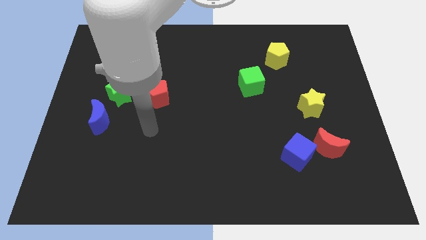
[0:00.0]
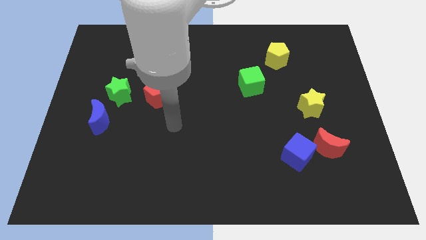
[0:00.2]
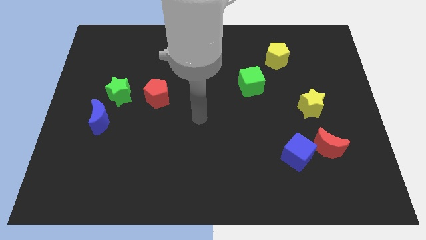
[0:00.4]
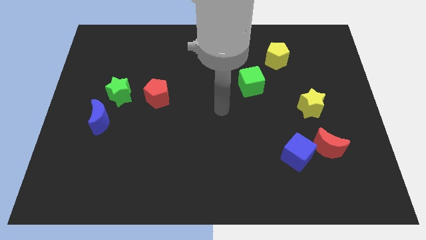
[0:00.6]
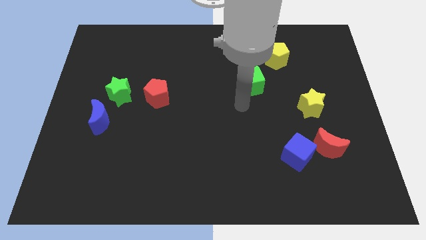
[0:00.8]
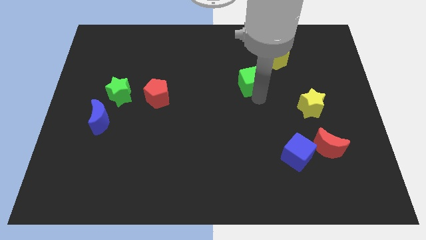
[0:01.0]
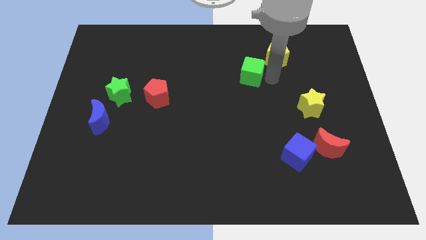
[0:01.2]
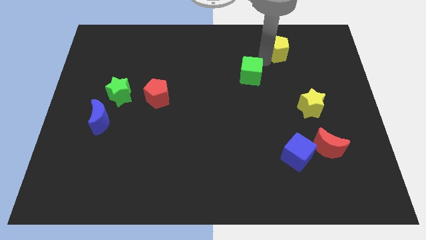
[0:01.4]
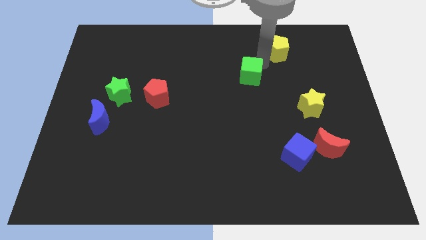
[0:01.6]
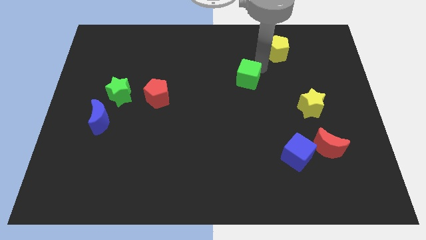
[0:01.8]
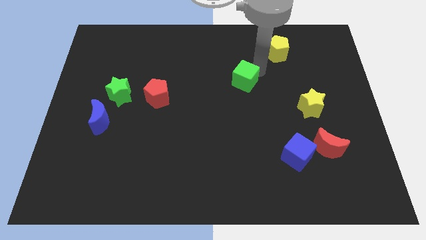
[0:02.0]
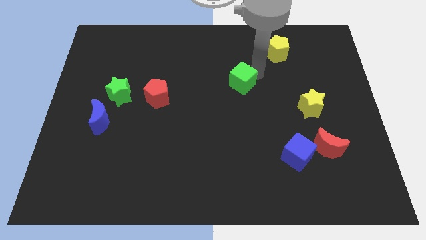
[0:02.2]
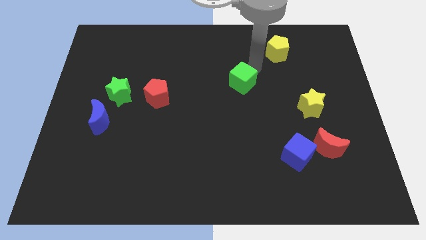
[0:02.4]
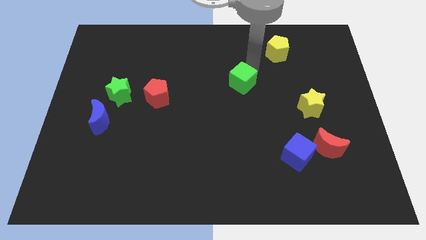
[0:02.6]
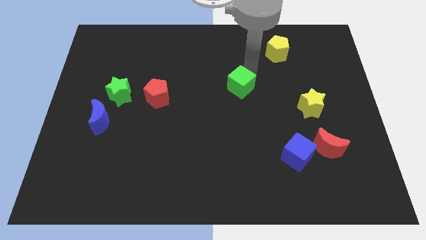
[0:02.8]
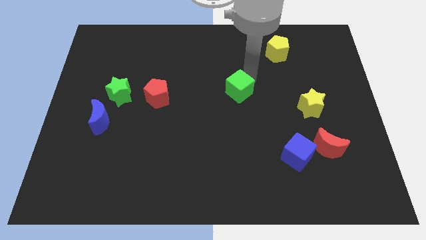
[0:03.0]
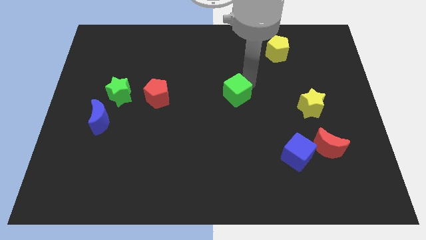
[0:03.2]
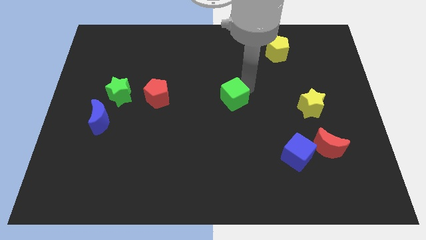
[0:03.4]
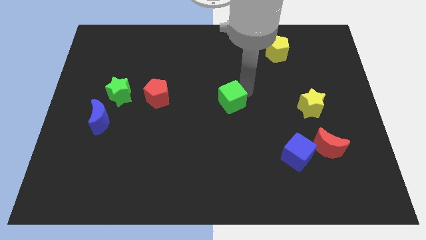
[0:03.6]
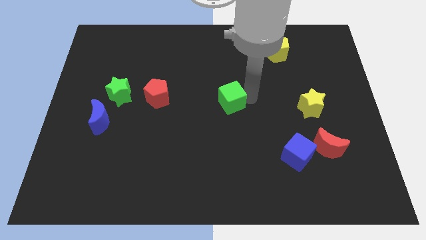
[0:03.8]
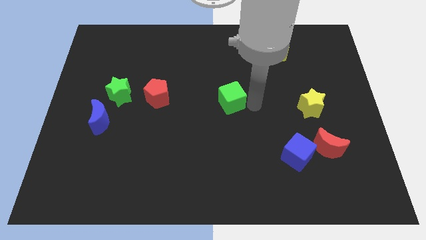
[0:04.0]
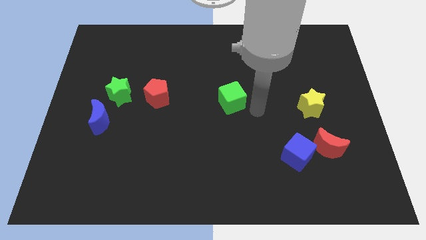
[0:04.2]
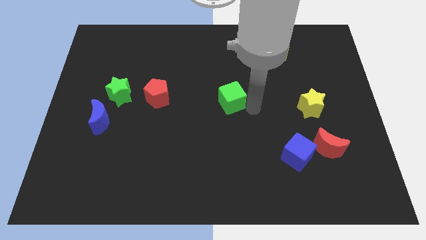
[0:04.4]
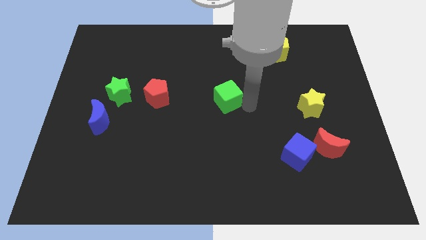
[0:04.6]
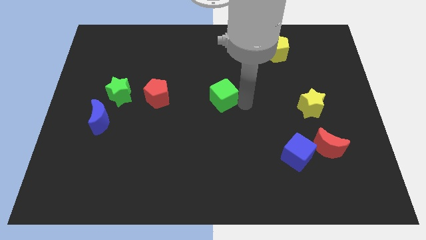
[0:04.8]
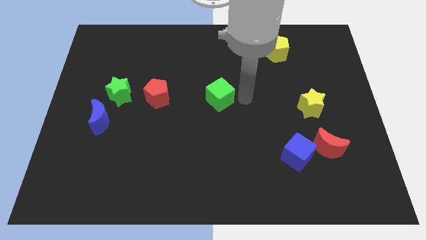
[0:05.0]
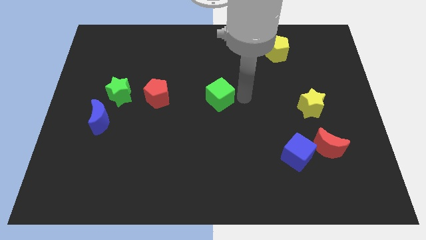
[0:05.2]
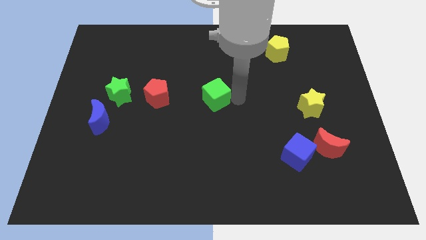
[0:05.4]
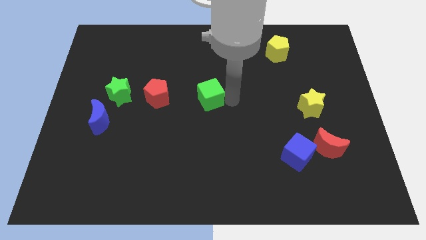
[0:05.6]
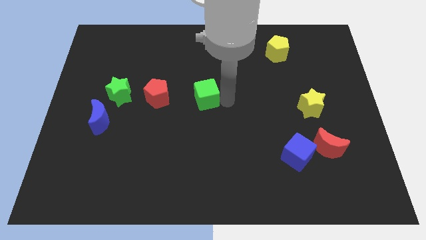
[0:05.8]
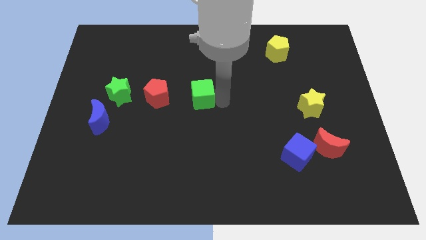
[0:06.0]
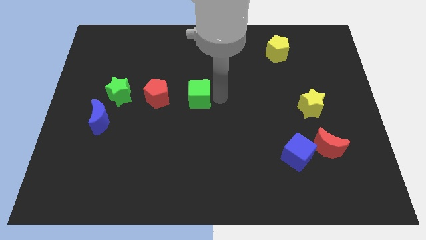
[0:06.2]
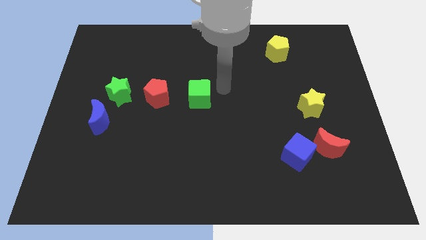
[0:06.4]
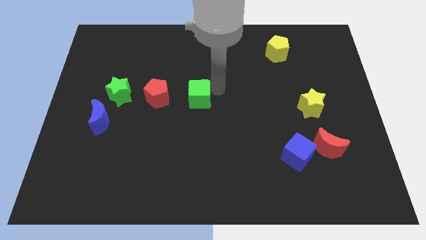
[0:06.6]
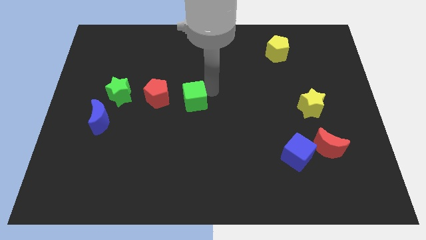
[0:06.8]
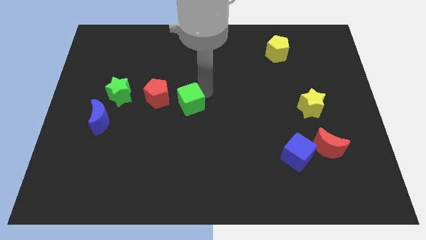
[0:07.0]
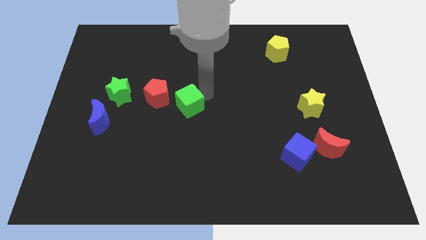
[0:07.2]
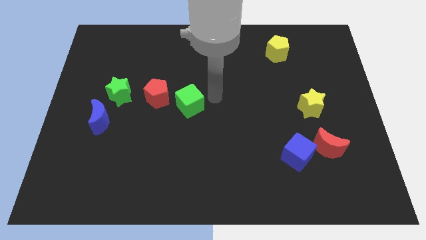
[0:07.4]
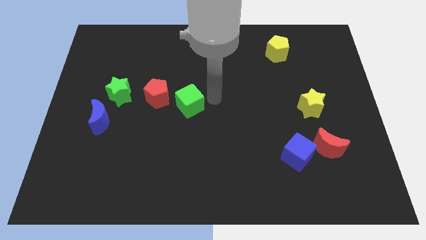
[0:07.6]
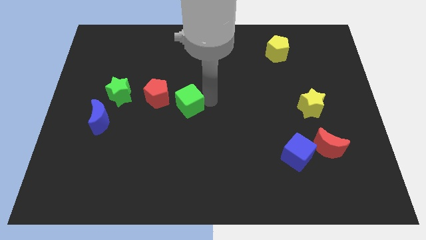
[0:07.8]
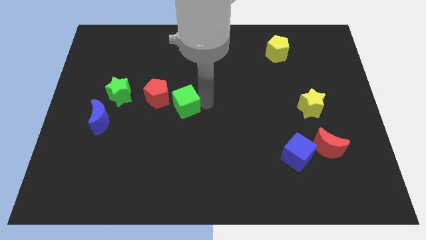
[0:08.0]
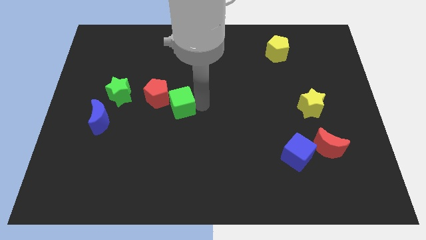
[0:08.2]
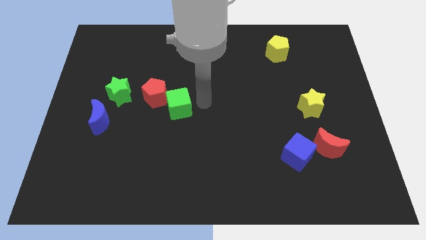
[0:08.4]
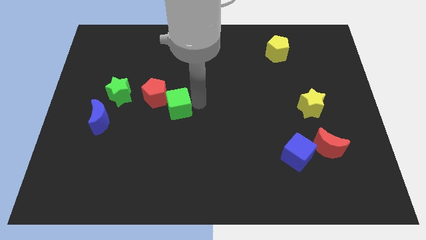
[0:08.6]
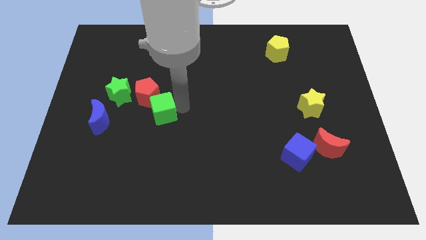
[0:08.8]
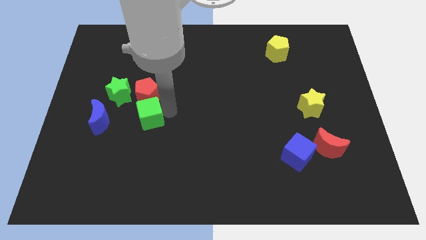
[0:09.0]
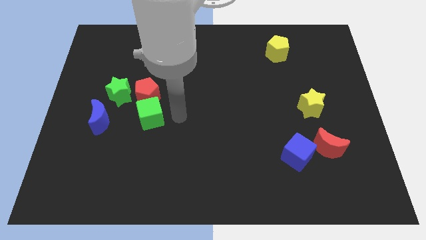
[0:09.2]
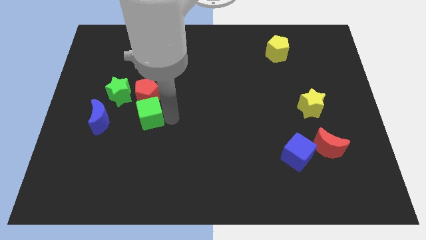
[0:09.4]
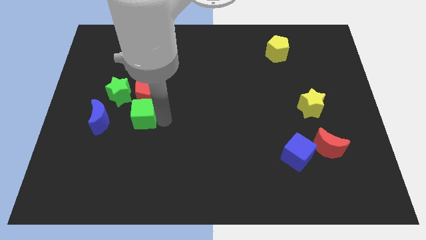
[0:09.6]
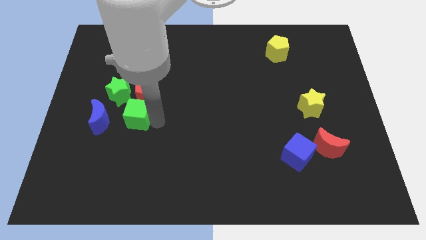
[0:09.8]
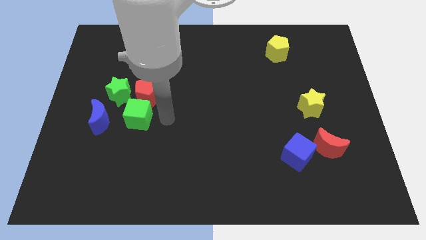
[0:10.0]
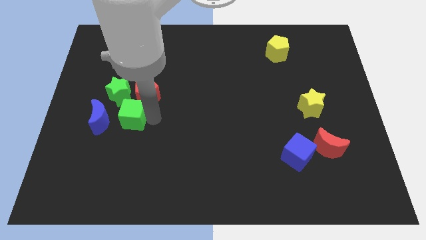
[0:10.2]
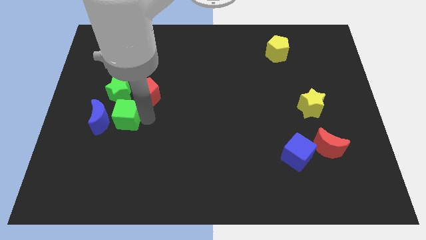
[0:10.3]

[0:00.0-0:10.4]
move the green cube towards the blue moon

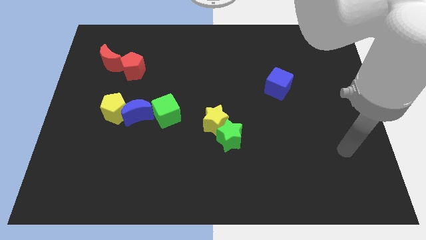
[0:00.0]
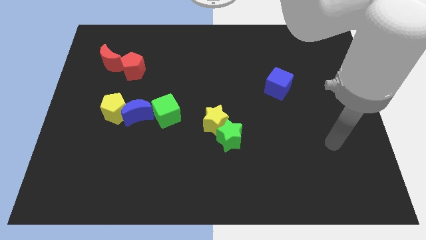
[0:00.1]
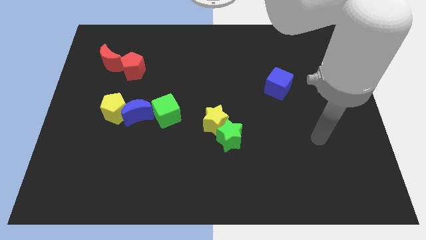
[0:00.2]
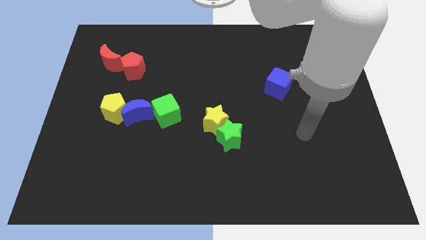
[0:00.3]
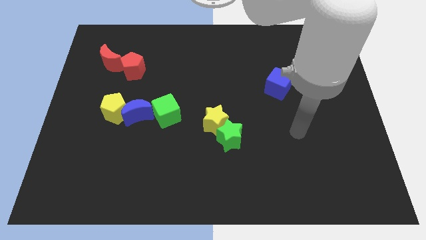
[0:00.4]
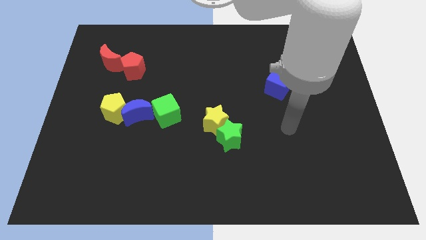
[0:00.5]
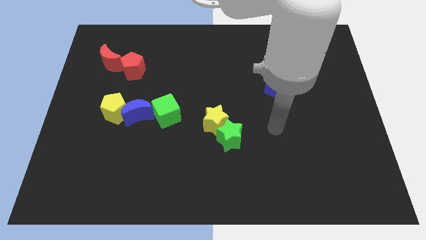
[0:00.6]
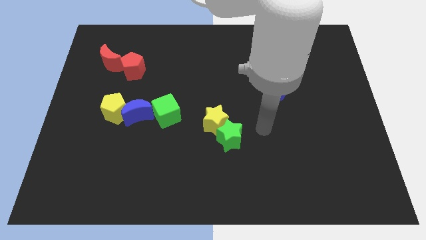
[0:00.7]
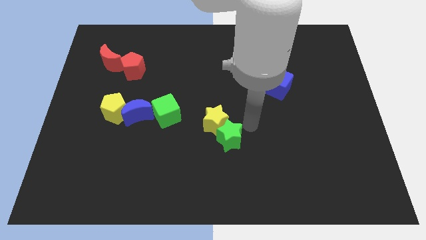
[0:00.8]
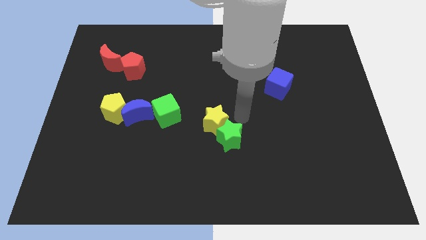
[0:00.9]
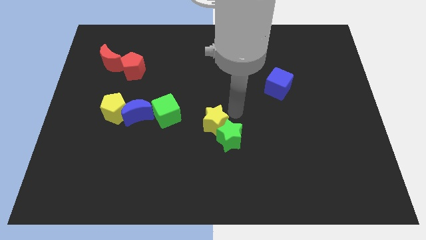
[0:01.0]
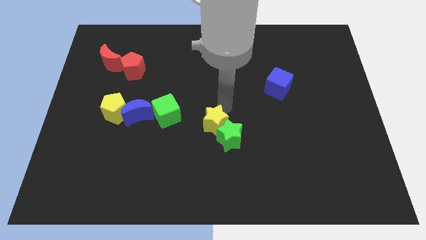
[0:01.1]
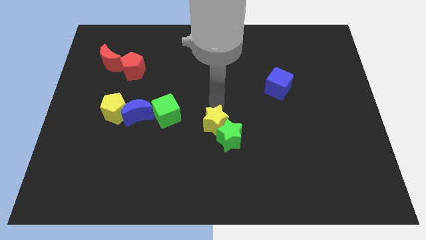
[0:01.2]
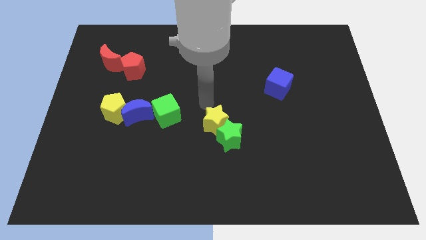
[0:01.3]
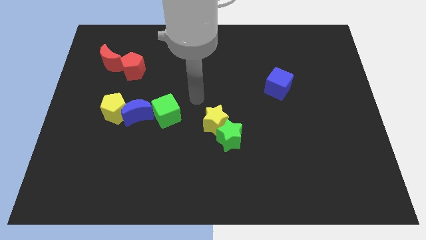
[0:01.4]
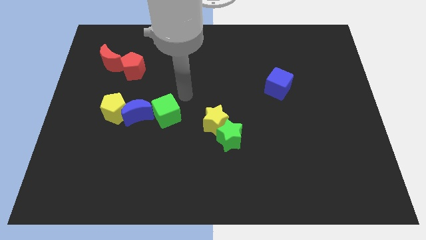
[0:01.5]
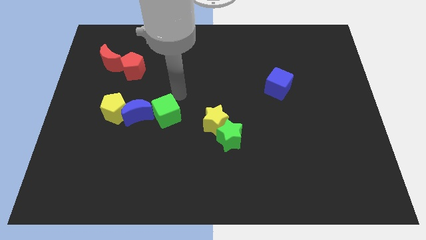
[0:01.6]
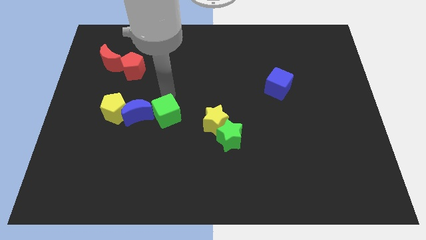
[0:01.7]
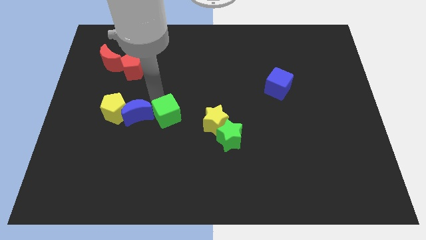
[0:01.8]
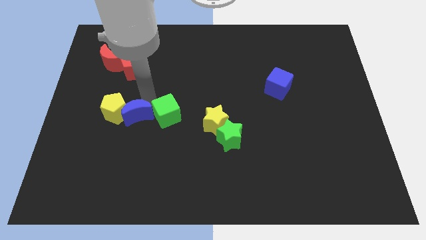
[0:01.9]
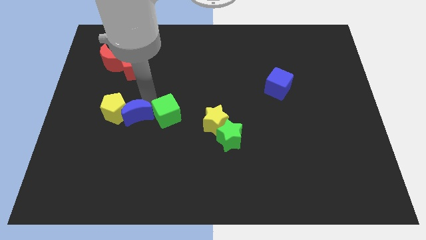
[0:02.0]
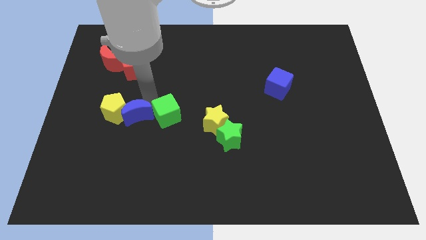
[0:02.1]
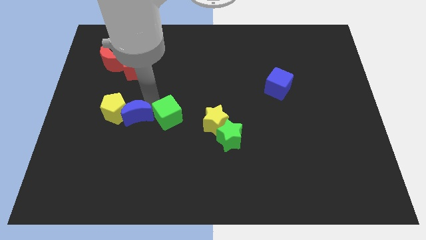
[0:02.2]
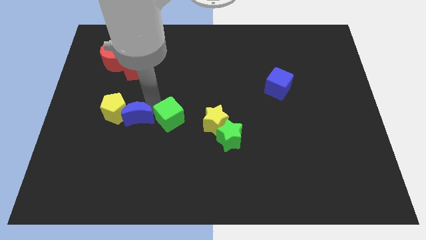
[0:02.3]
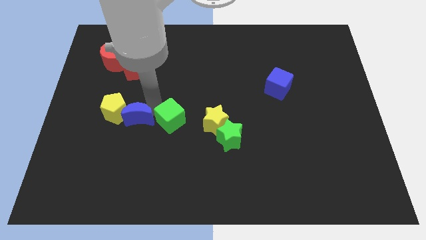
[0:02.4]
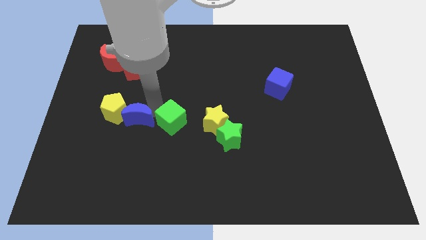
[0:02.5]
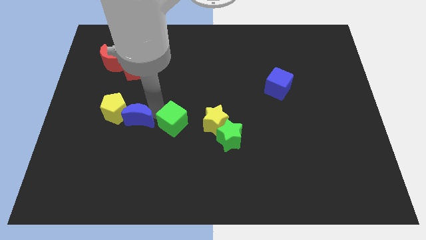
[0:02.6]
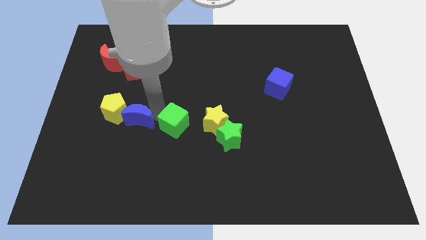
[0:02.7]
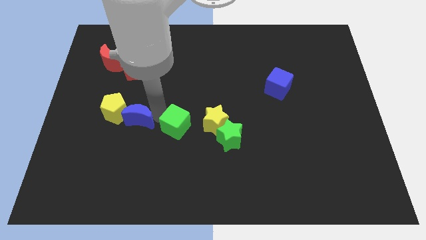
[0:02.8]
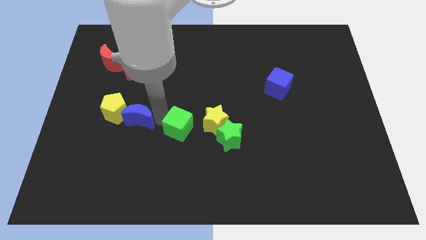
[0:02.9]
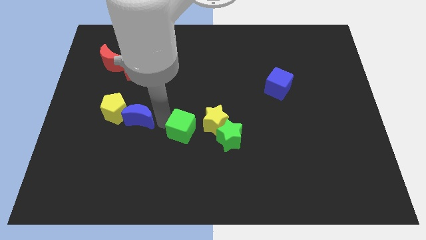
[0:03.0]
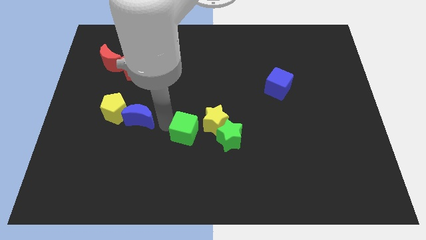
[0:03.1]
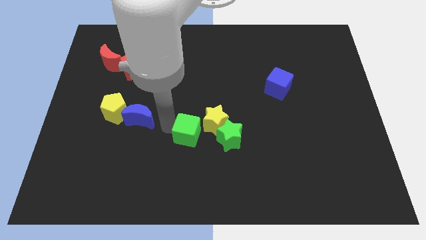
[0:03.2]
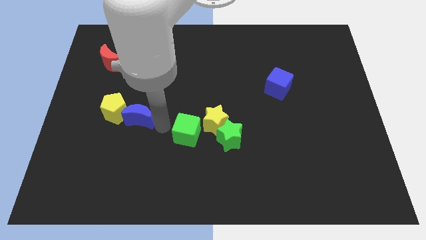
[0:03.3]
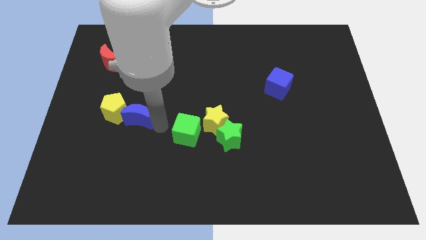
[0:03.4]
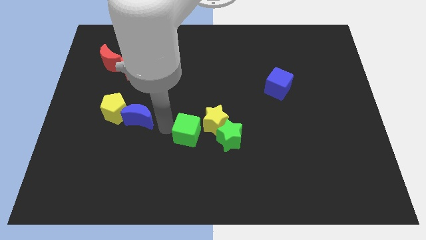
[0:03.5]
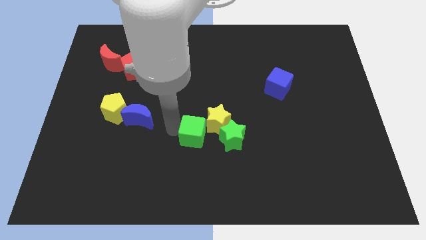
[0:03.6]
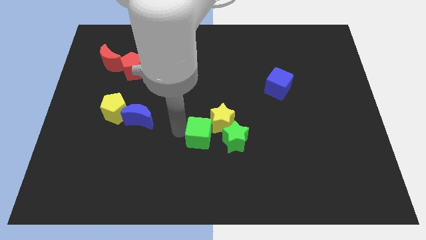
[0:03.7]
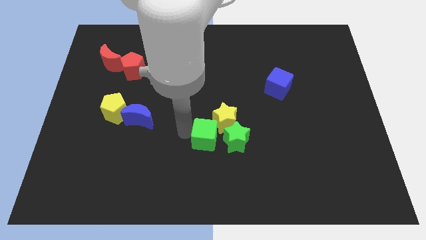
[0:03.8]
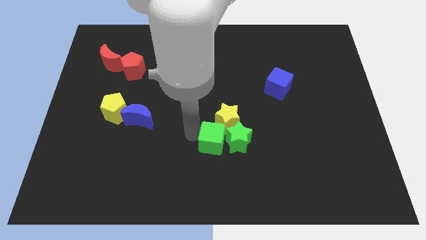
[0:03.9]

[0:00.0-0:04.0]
put the green cube close to the green star
